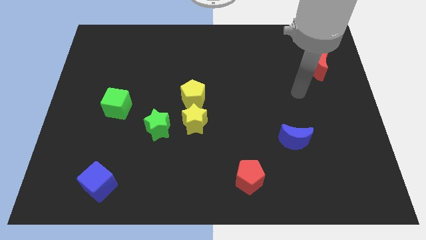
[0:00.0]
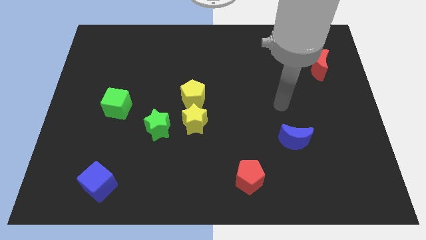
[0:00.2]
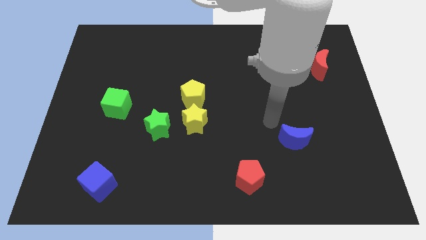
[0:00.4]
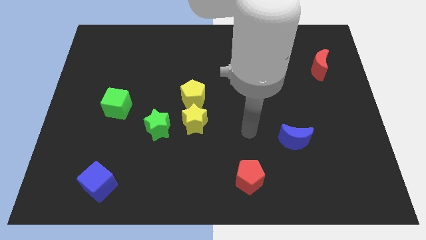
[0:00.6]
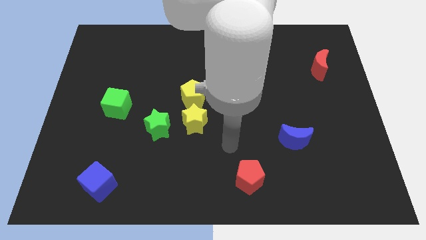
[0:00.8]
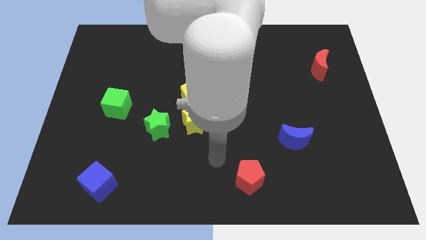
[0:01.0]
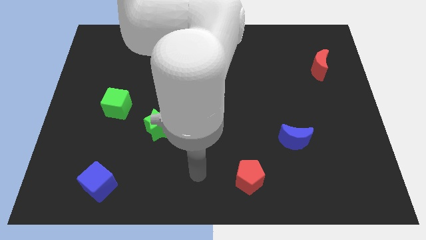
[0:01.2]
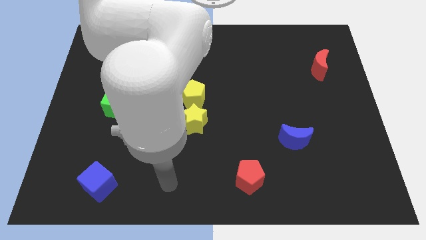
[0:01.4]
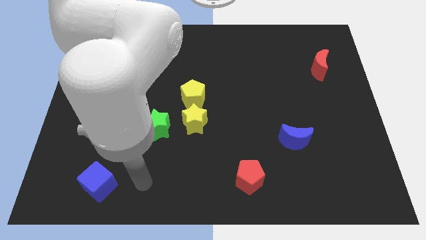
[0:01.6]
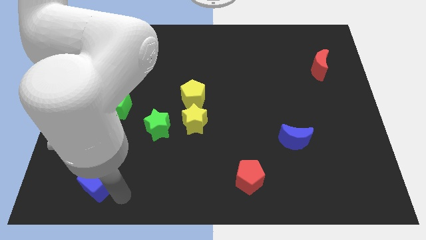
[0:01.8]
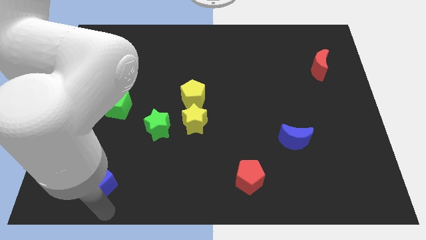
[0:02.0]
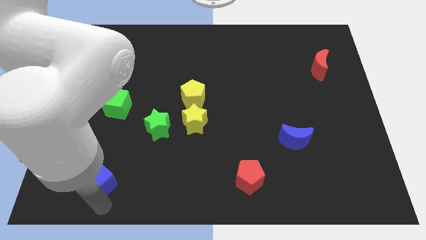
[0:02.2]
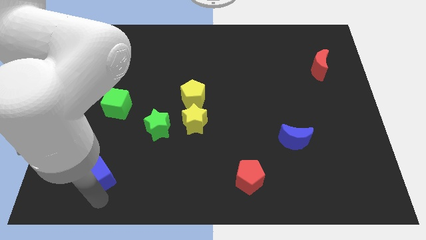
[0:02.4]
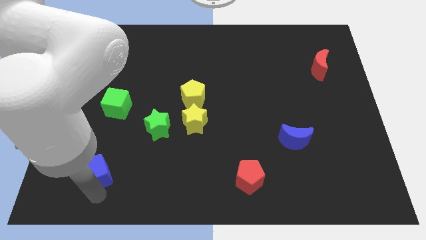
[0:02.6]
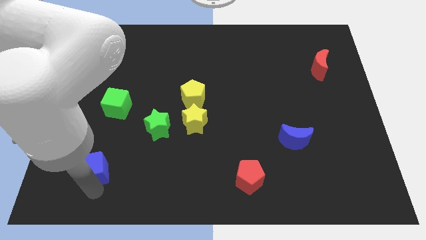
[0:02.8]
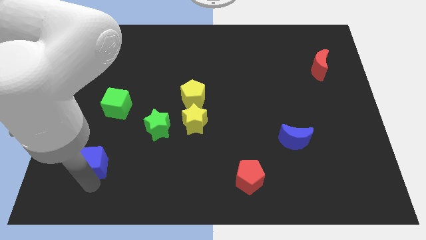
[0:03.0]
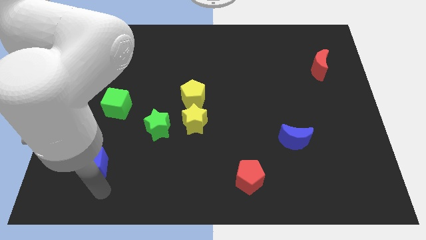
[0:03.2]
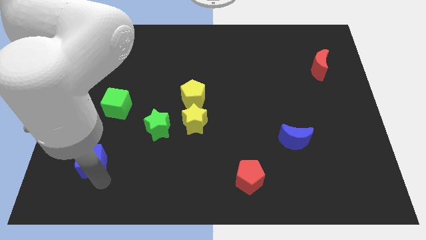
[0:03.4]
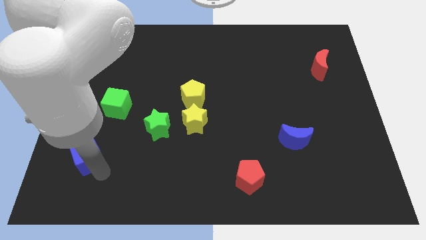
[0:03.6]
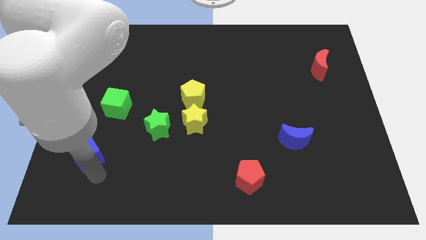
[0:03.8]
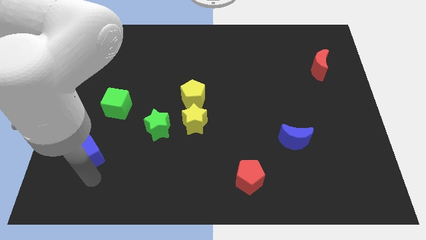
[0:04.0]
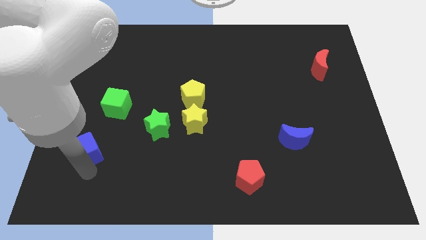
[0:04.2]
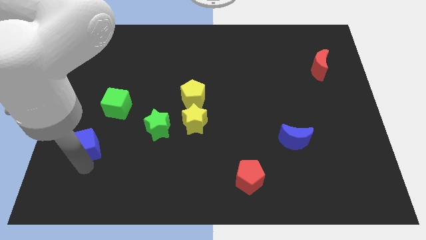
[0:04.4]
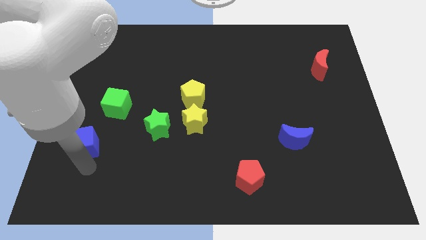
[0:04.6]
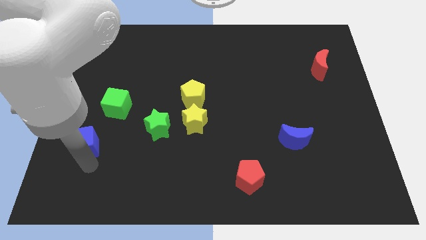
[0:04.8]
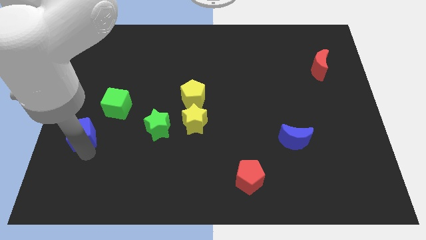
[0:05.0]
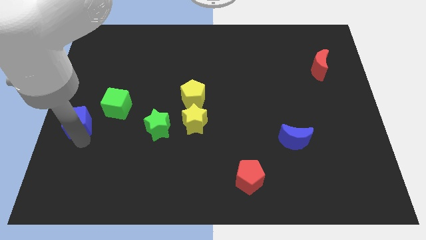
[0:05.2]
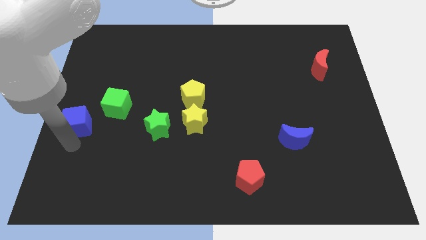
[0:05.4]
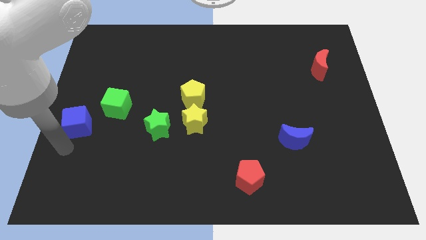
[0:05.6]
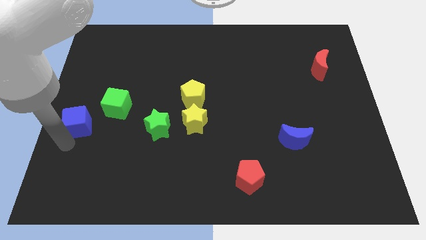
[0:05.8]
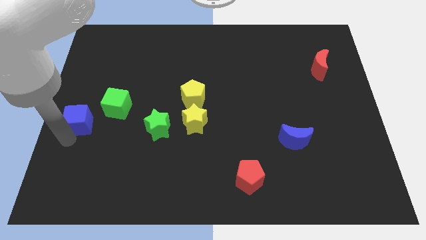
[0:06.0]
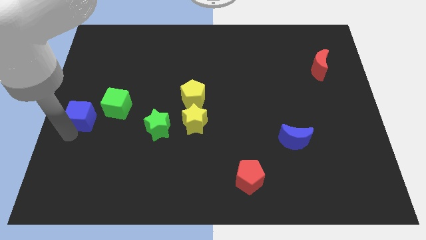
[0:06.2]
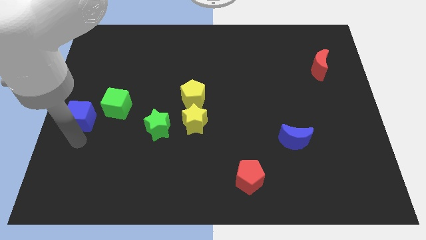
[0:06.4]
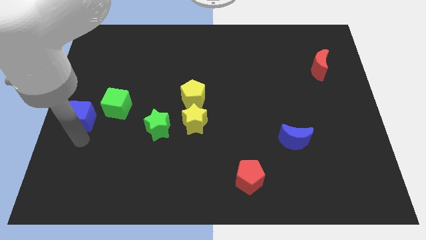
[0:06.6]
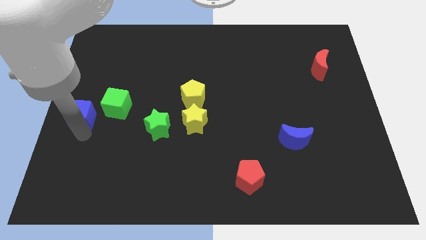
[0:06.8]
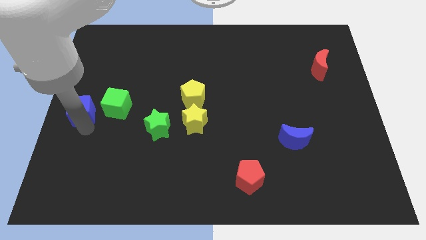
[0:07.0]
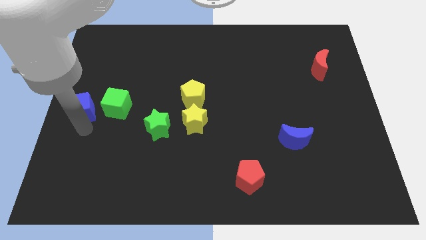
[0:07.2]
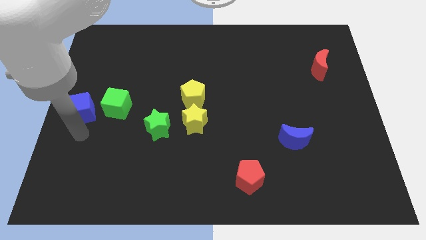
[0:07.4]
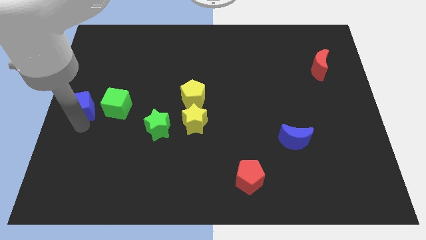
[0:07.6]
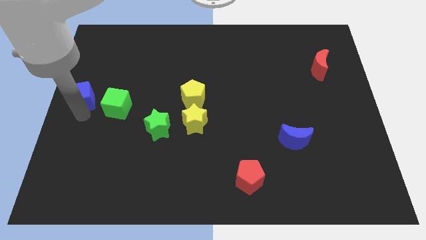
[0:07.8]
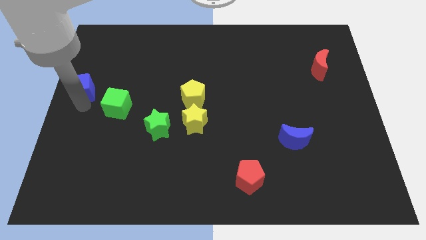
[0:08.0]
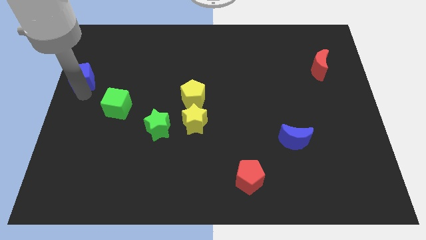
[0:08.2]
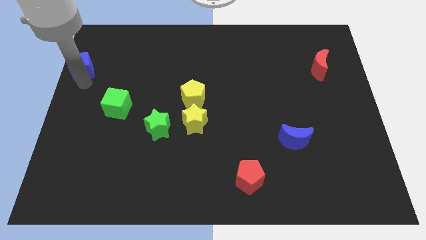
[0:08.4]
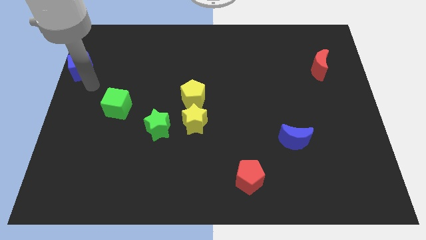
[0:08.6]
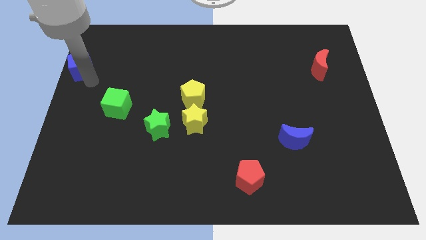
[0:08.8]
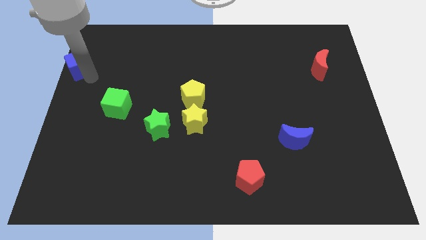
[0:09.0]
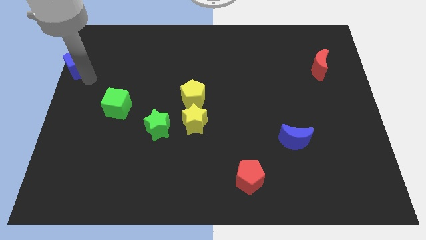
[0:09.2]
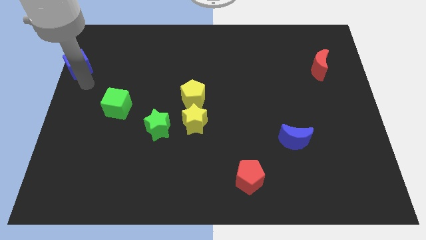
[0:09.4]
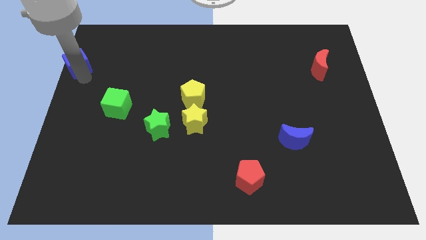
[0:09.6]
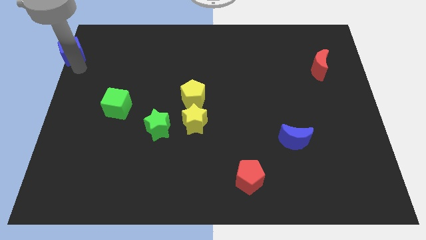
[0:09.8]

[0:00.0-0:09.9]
push the blue cube to the top left of the board

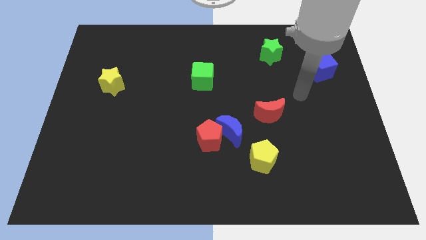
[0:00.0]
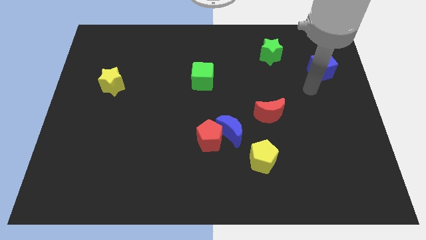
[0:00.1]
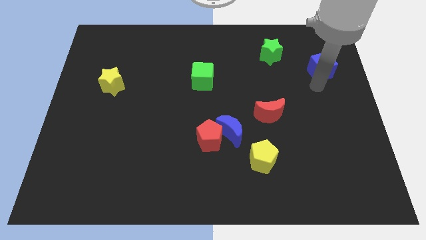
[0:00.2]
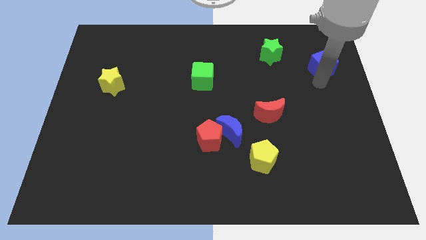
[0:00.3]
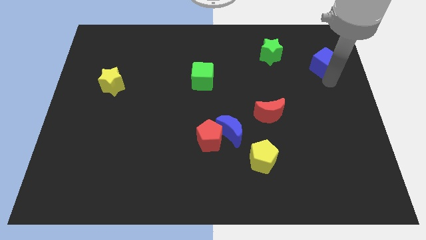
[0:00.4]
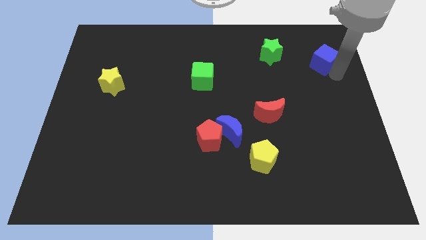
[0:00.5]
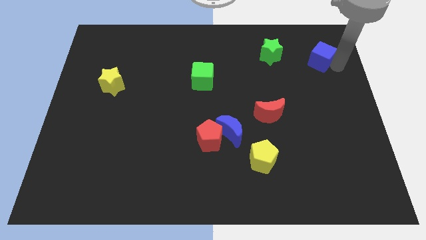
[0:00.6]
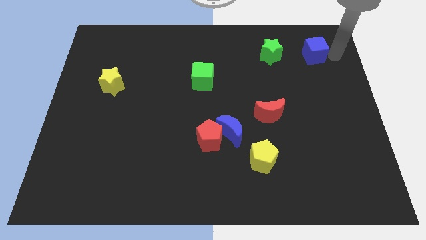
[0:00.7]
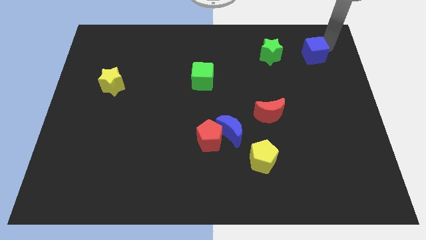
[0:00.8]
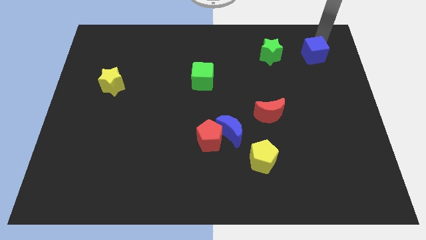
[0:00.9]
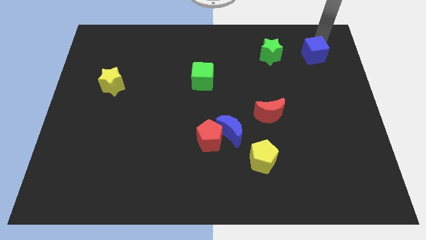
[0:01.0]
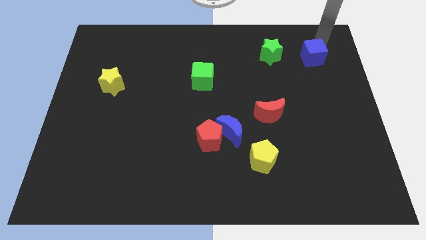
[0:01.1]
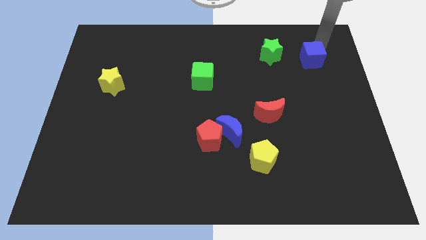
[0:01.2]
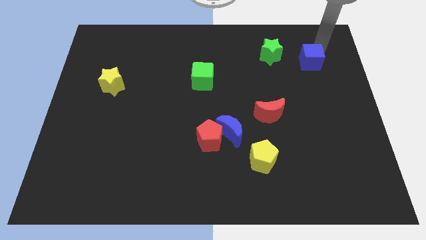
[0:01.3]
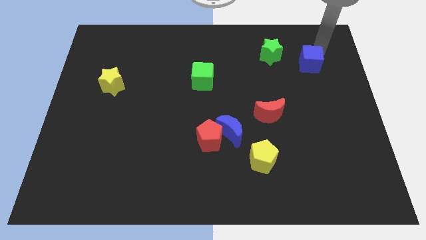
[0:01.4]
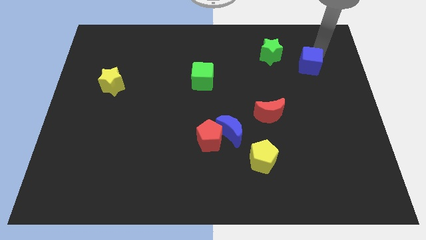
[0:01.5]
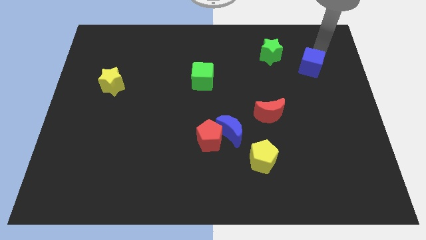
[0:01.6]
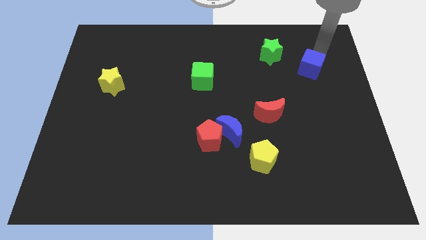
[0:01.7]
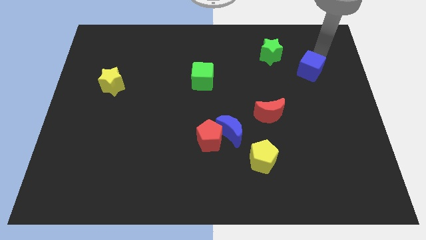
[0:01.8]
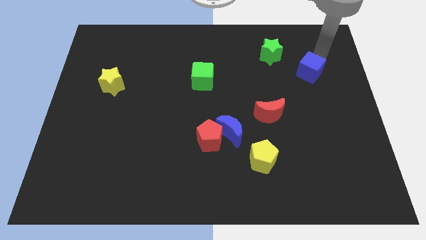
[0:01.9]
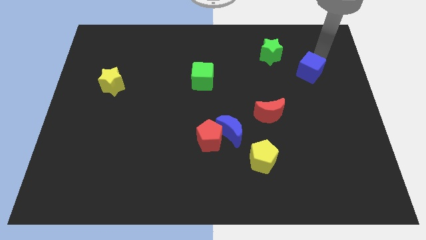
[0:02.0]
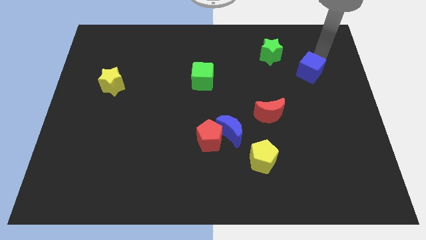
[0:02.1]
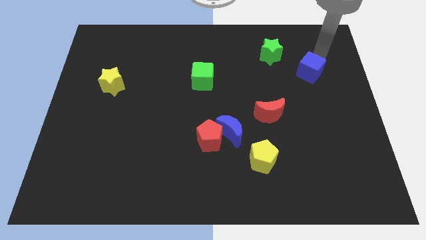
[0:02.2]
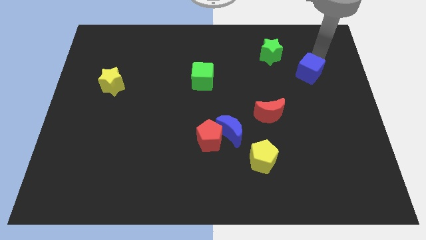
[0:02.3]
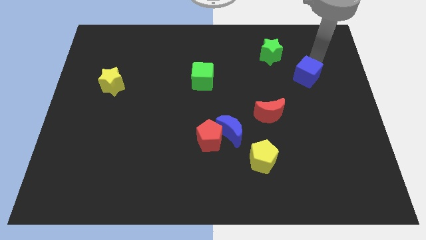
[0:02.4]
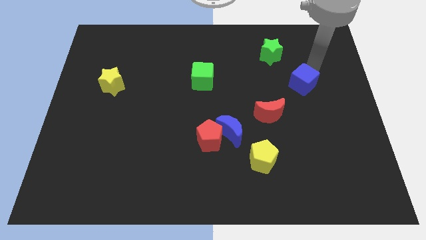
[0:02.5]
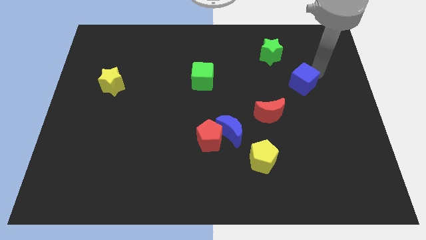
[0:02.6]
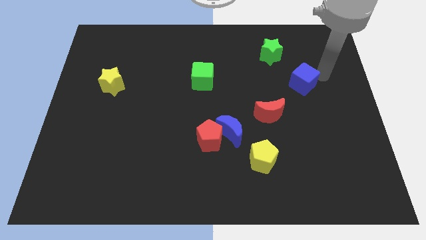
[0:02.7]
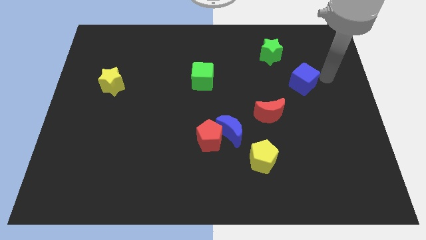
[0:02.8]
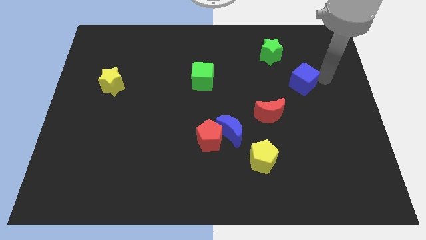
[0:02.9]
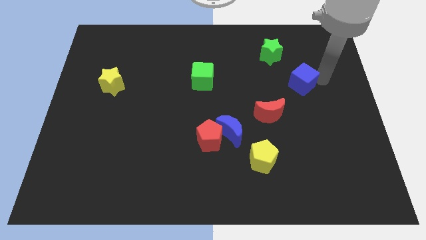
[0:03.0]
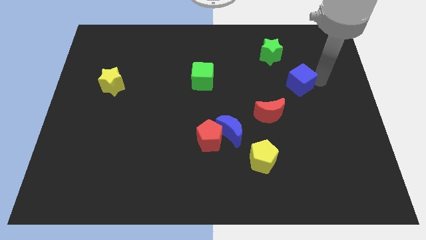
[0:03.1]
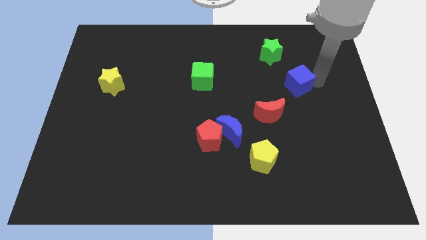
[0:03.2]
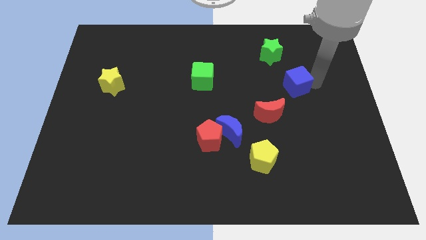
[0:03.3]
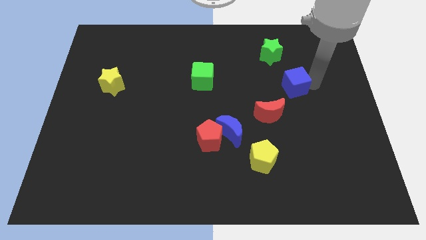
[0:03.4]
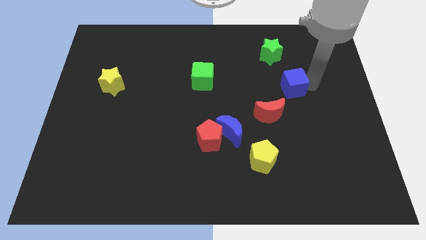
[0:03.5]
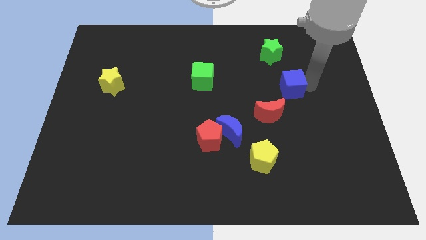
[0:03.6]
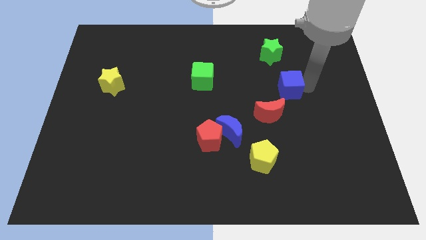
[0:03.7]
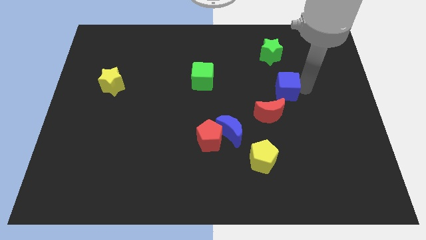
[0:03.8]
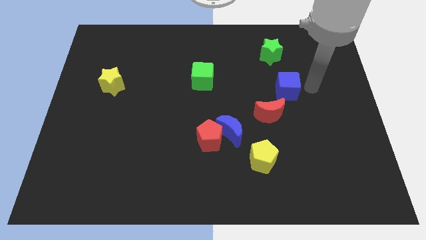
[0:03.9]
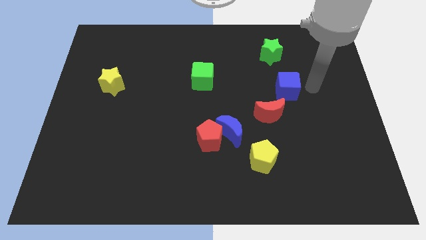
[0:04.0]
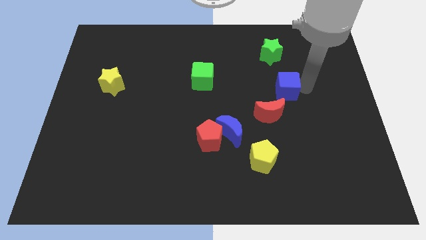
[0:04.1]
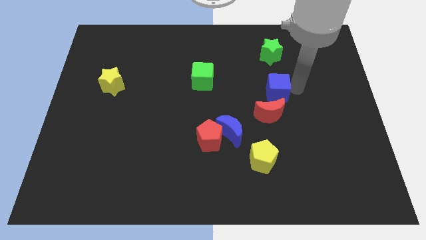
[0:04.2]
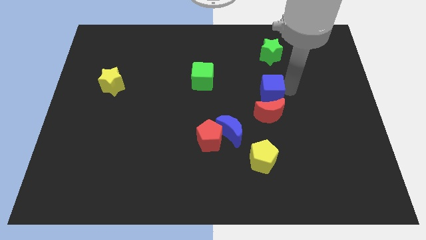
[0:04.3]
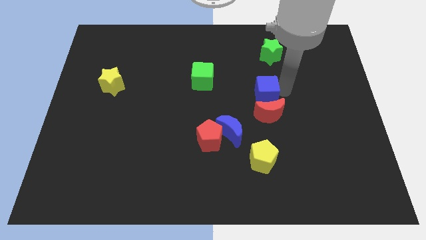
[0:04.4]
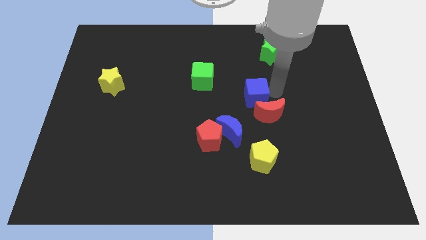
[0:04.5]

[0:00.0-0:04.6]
push the blue cube to the middle of the board
